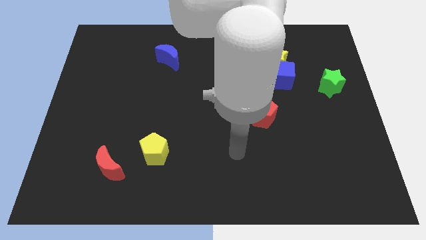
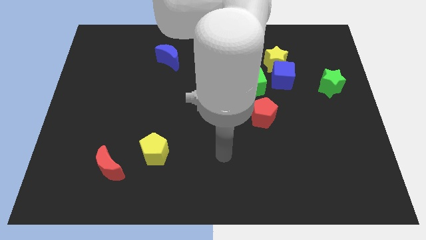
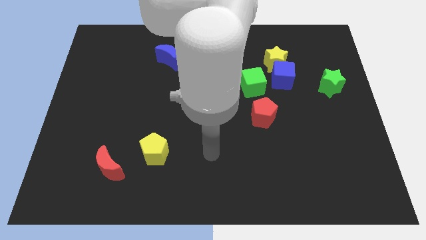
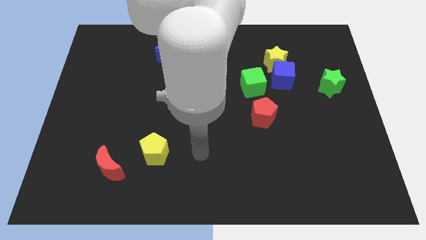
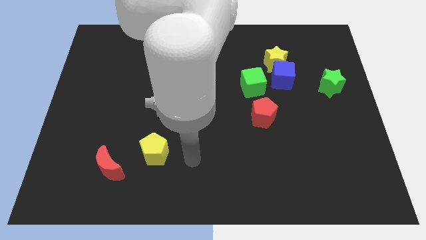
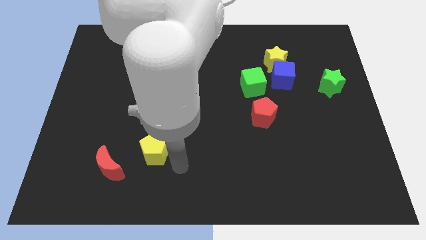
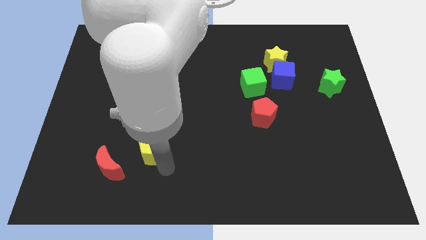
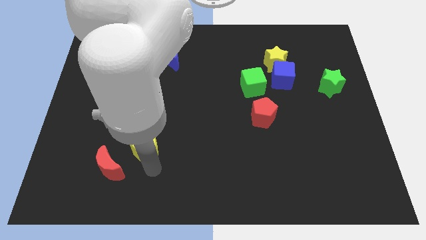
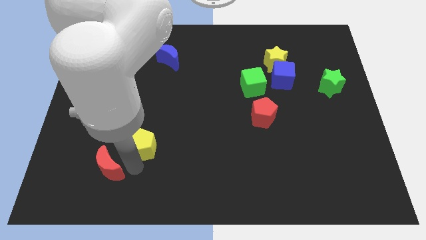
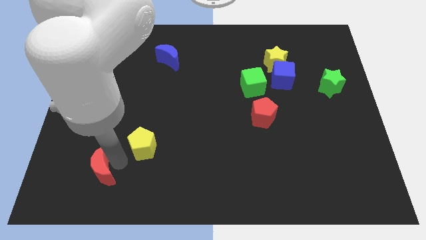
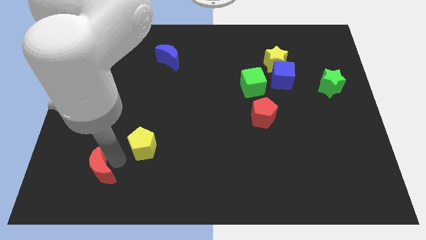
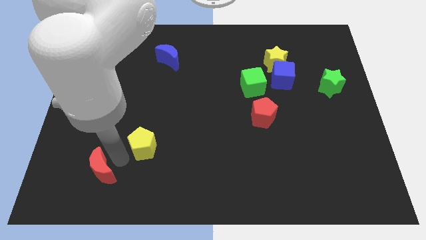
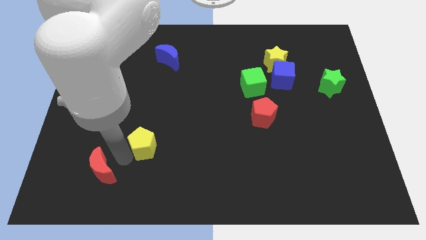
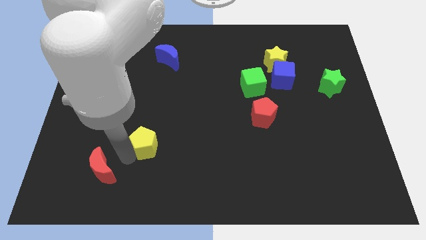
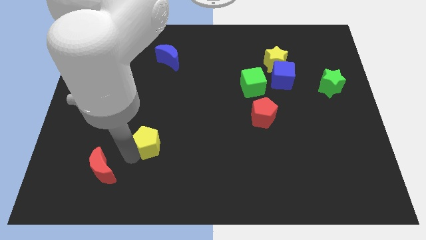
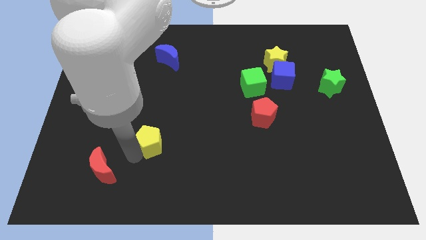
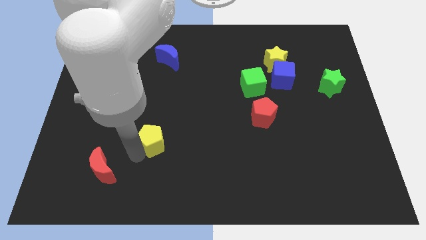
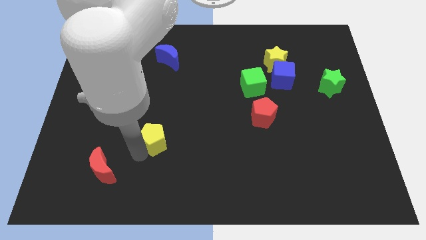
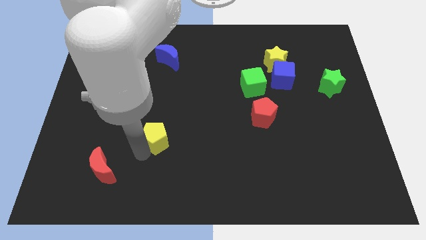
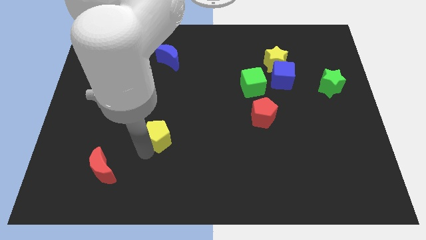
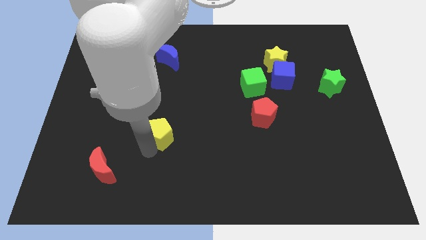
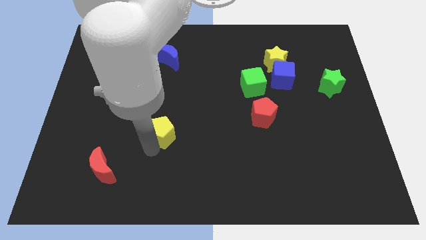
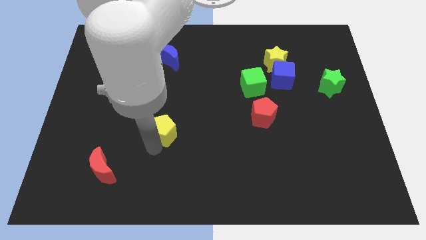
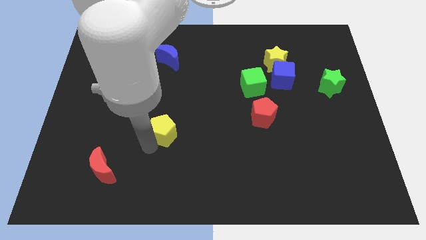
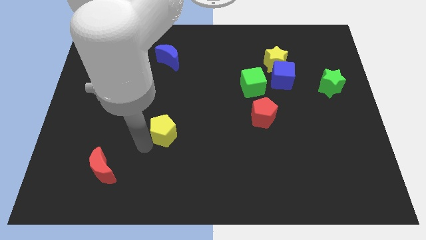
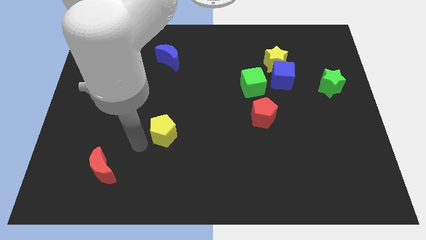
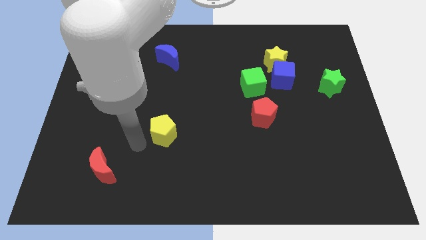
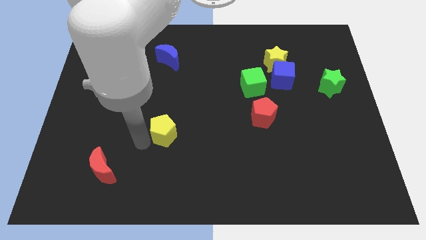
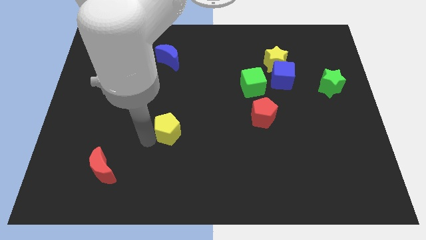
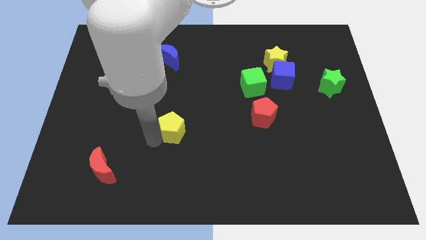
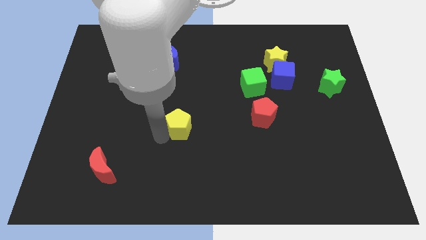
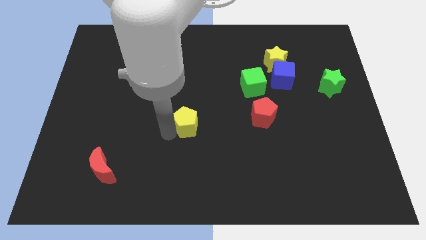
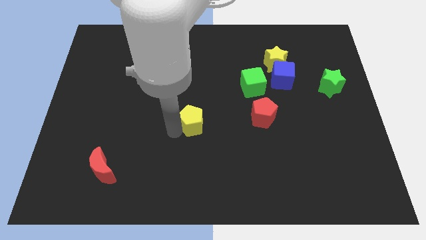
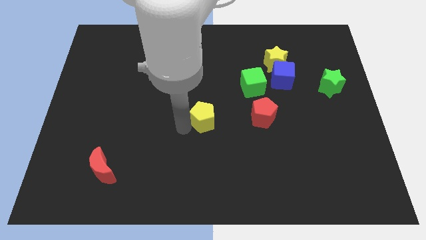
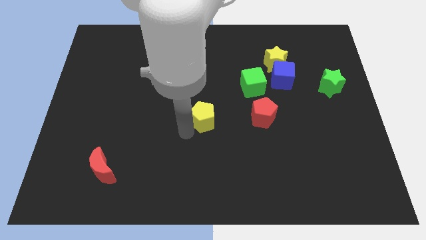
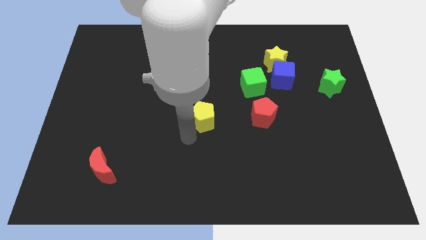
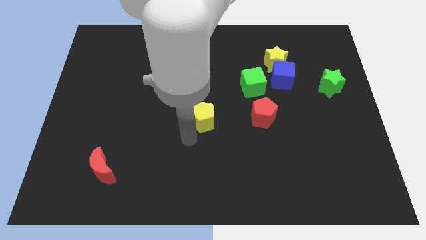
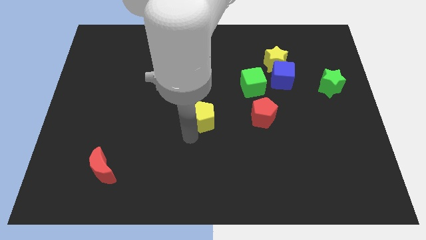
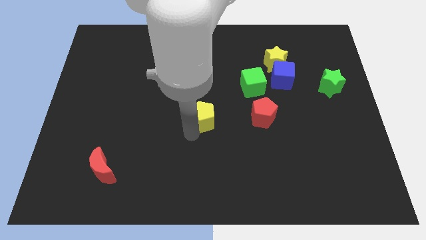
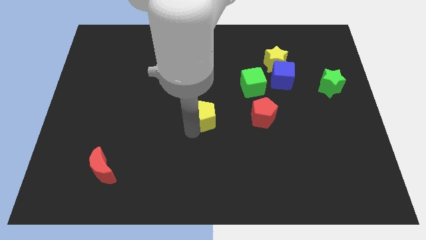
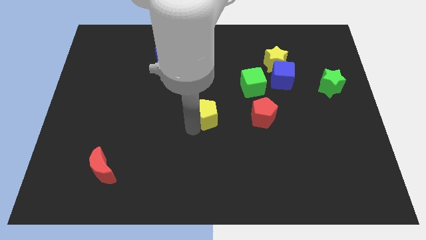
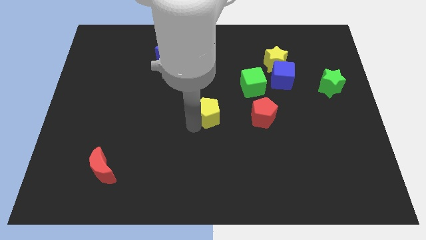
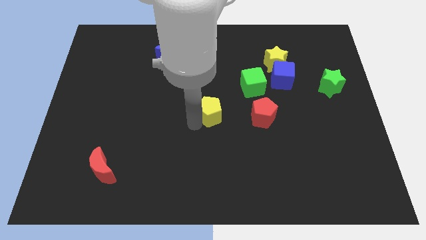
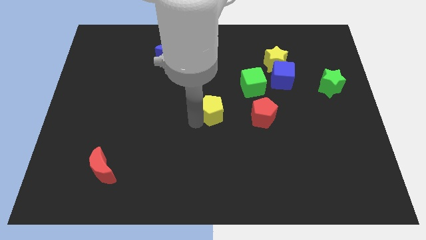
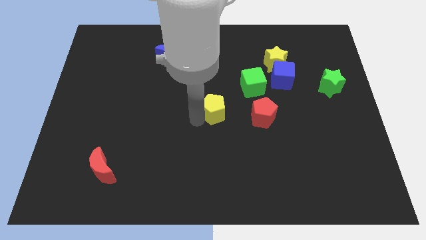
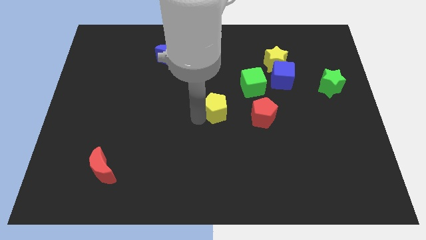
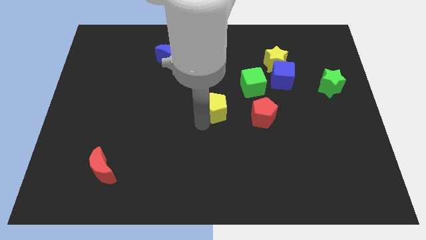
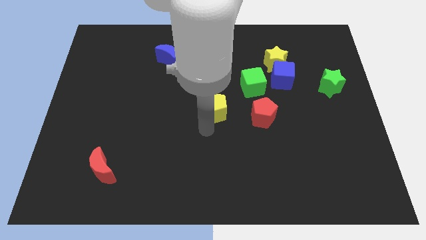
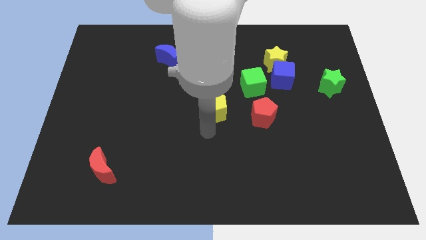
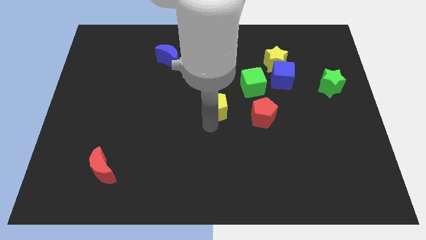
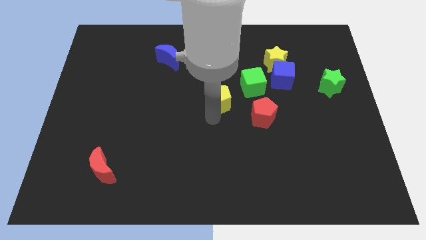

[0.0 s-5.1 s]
push the yellow pentagon up and to the right diagonally

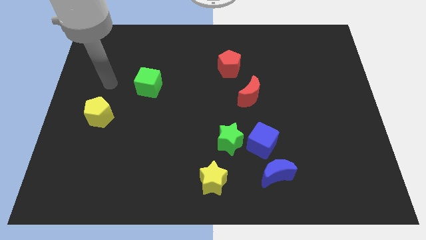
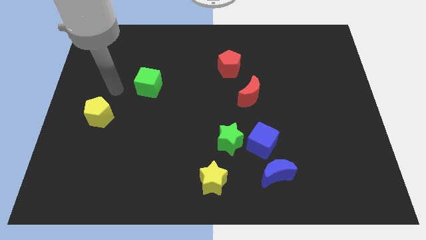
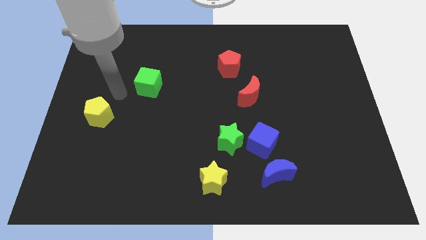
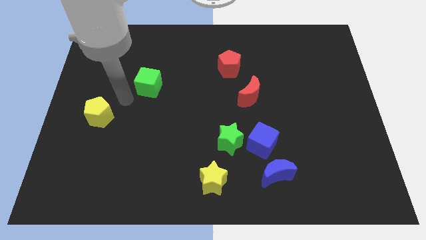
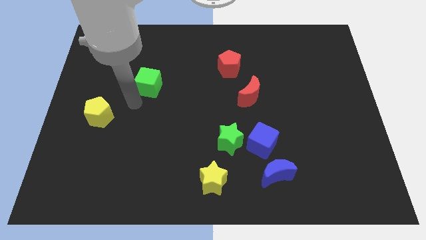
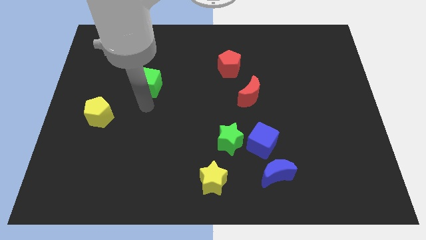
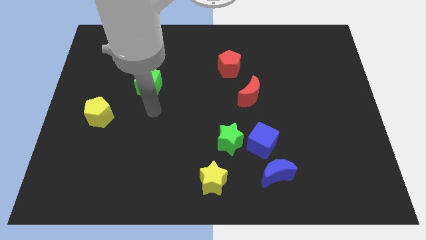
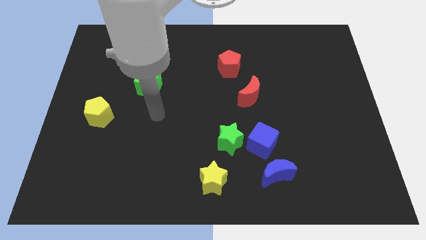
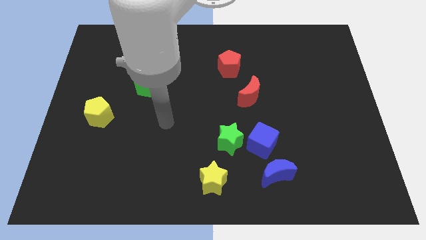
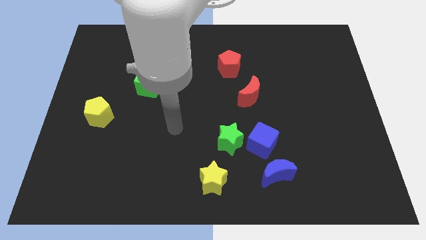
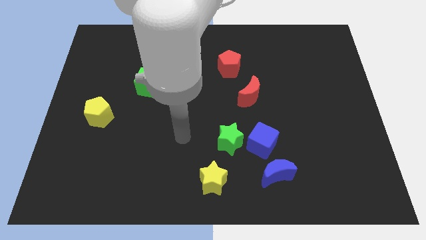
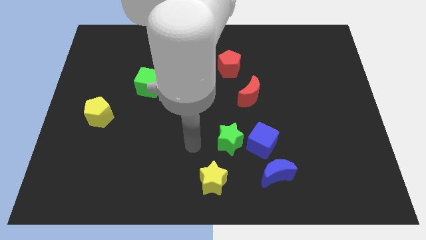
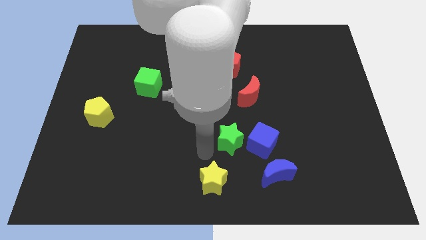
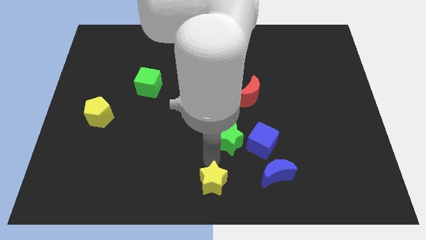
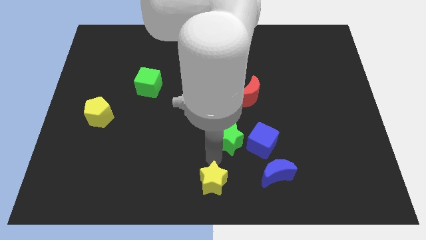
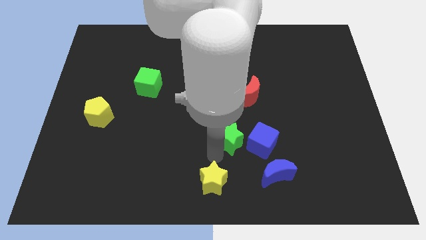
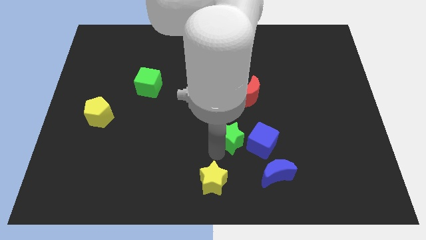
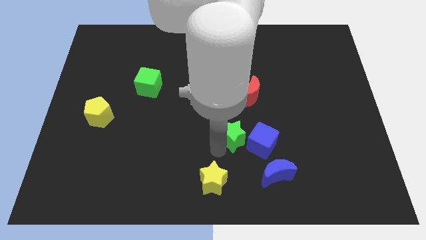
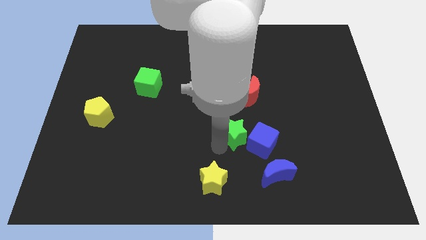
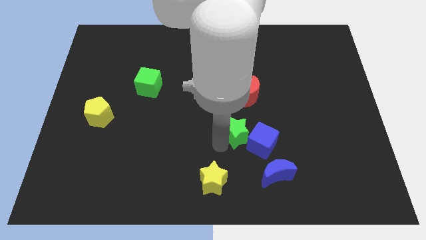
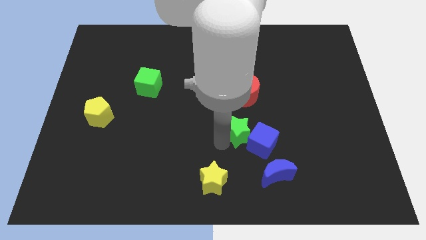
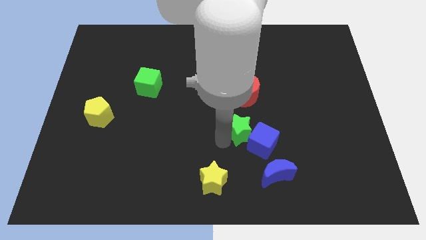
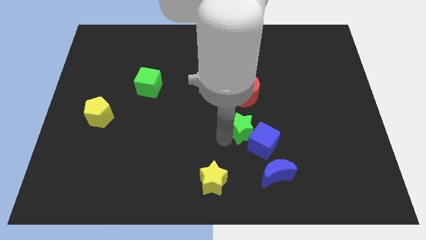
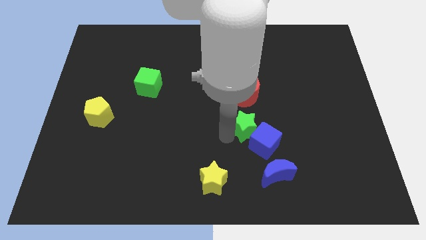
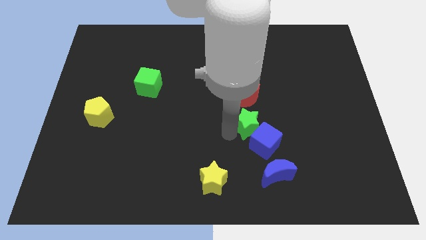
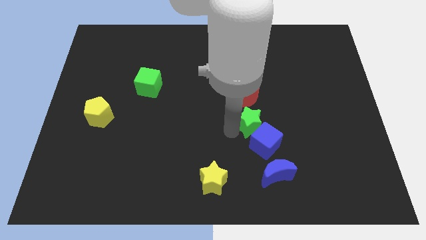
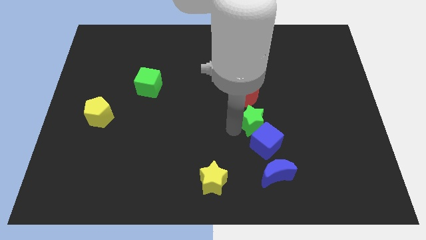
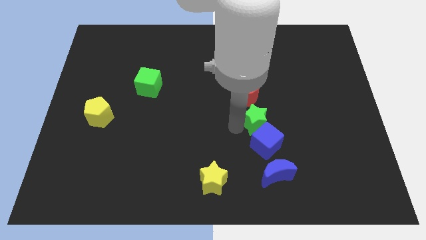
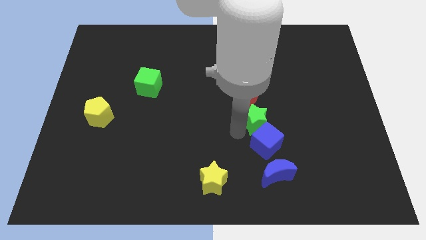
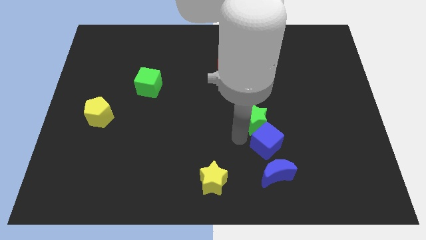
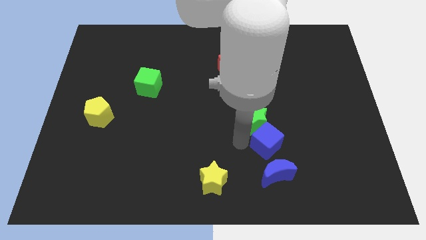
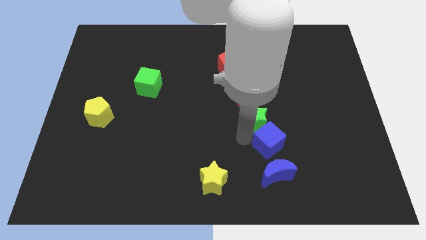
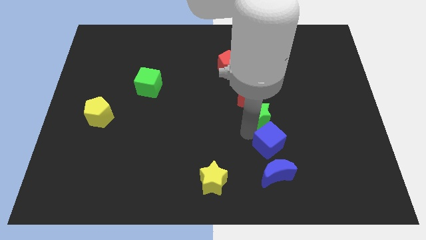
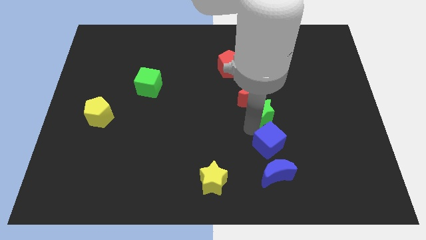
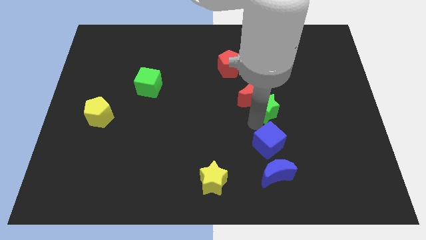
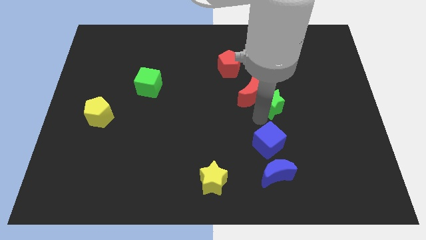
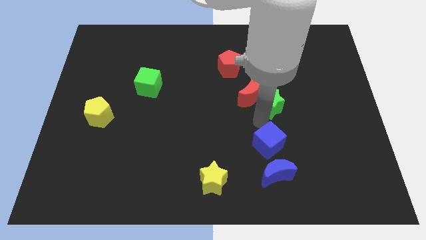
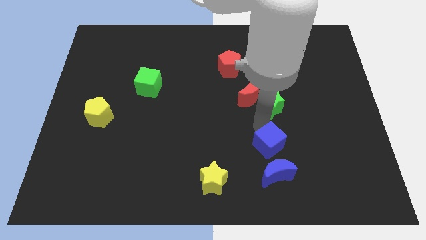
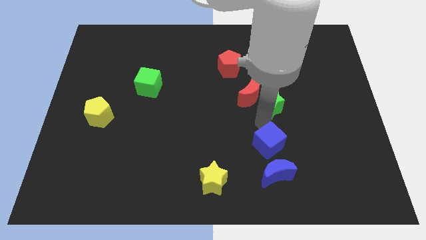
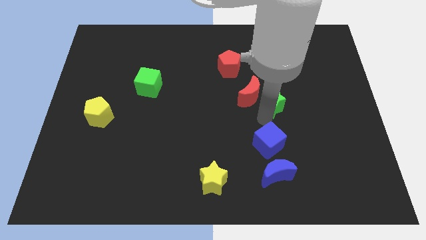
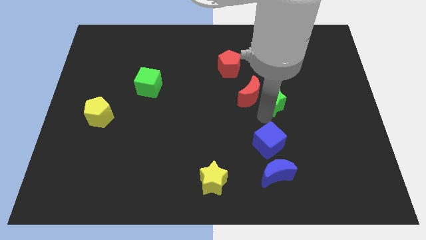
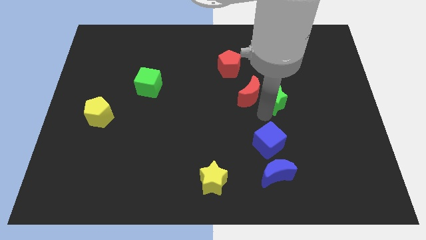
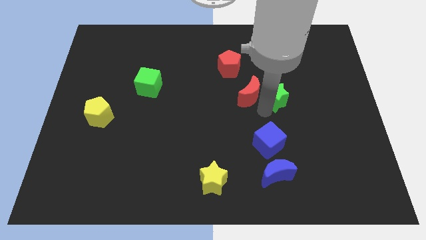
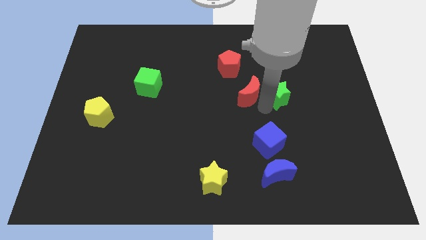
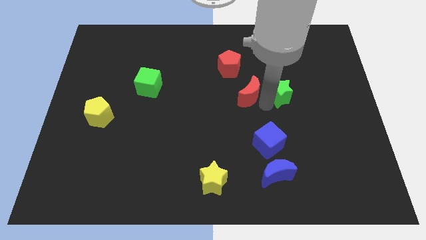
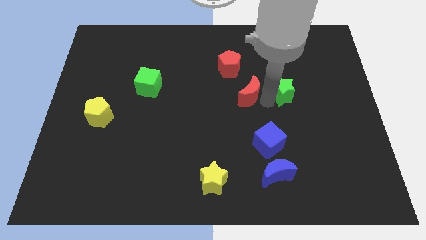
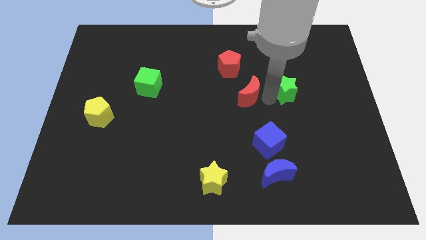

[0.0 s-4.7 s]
move the green star upwards and right diagonally
